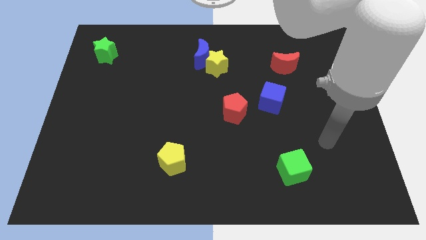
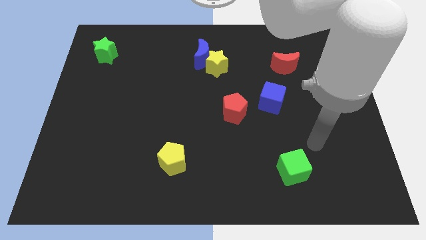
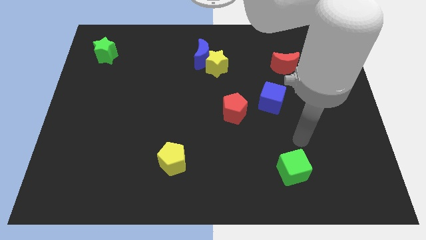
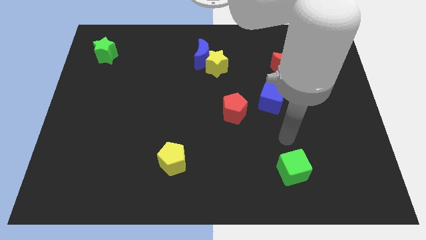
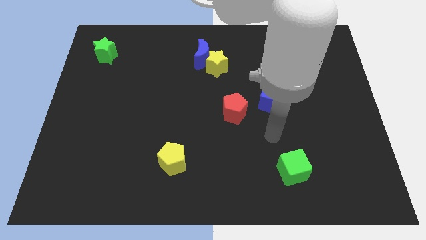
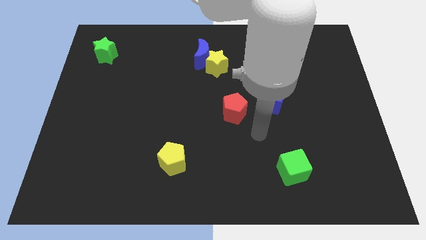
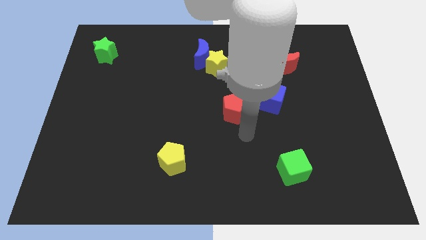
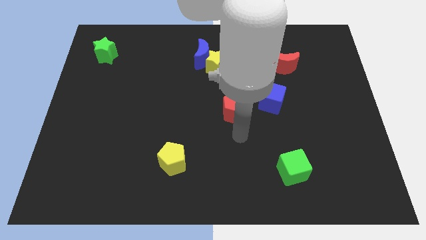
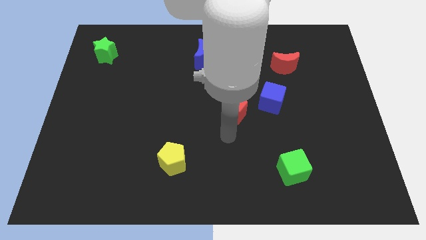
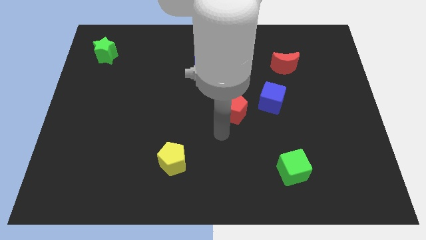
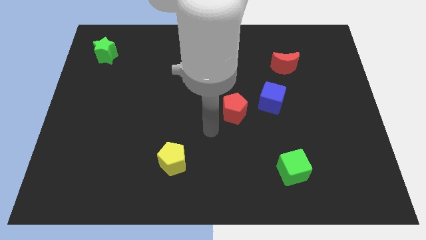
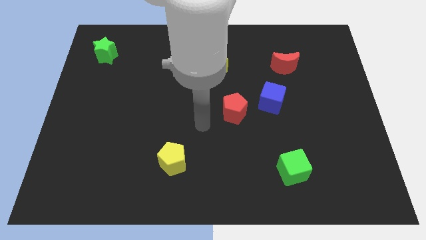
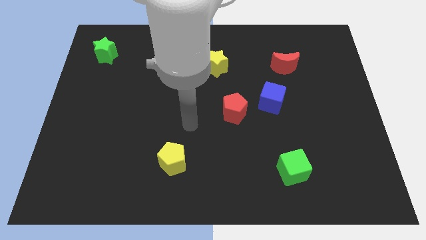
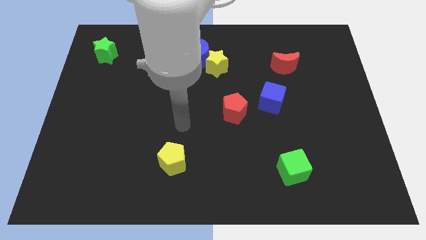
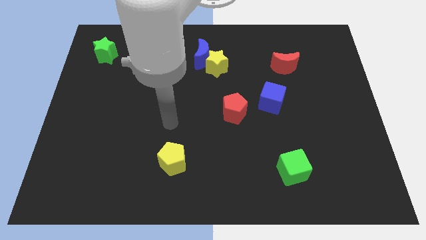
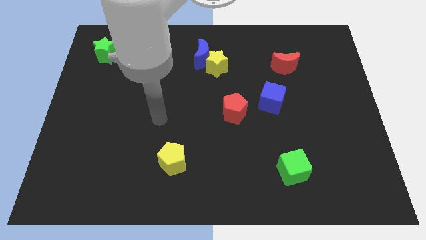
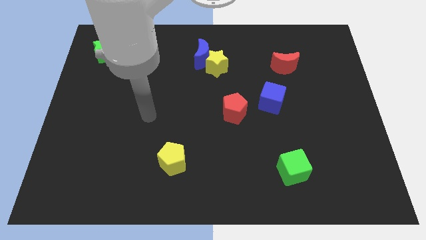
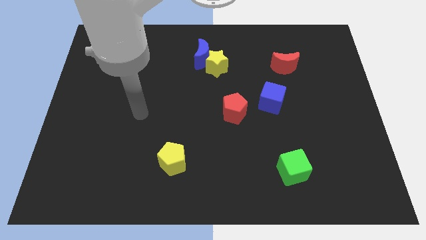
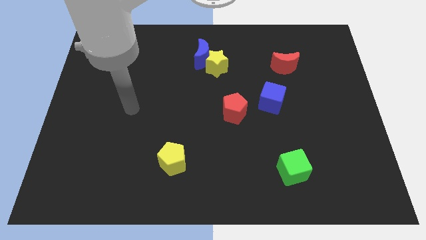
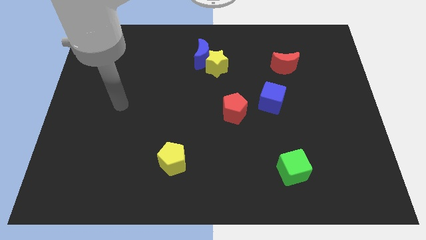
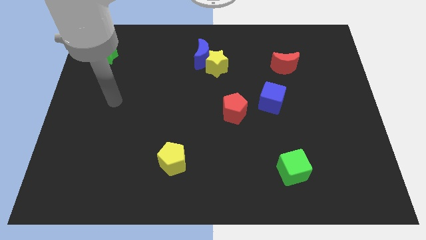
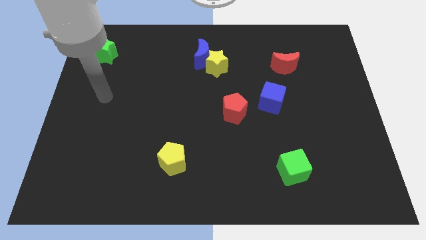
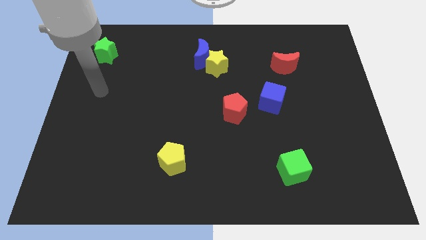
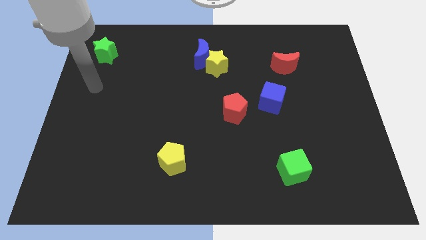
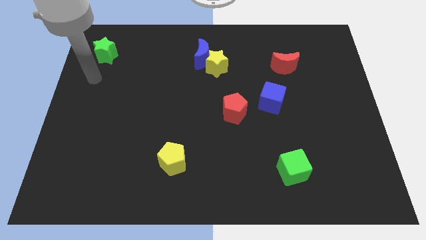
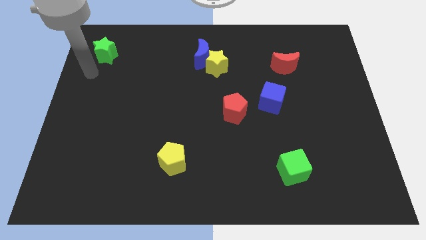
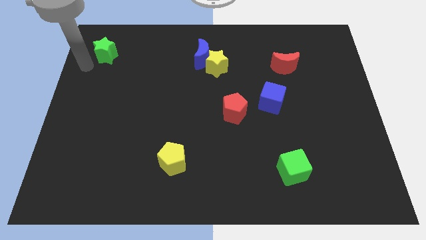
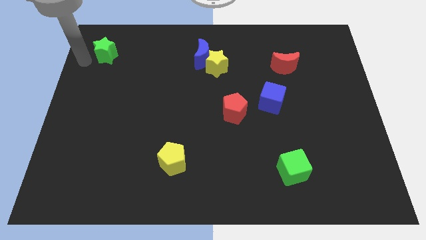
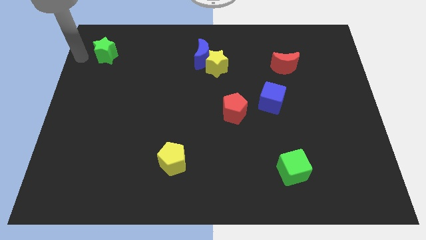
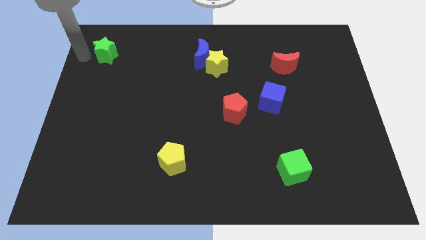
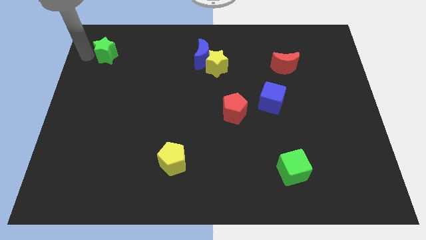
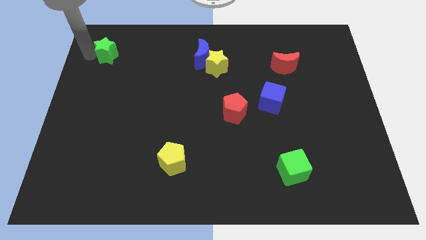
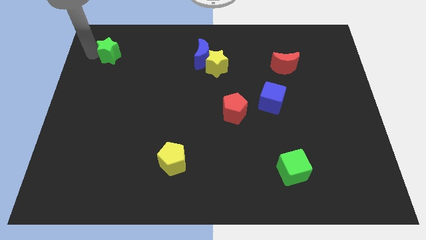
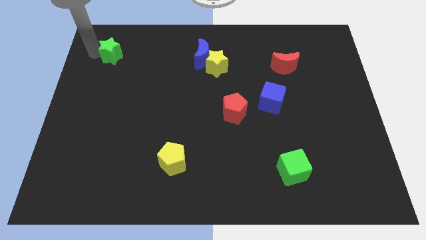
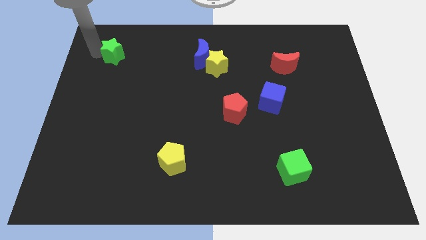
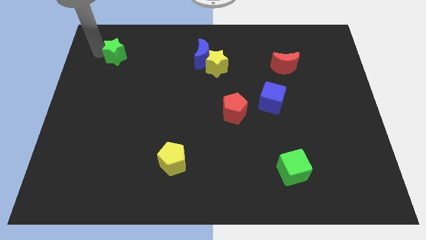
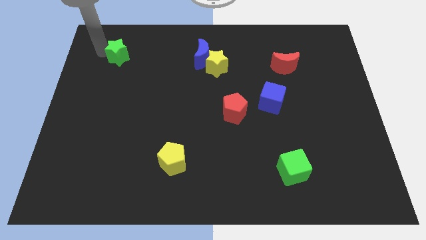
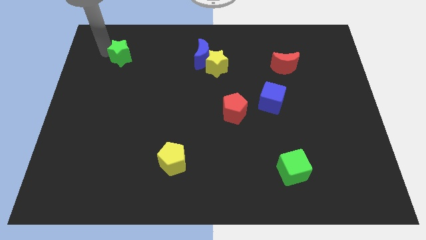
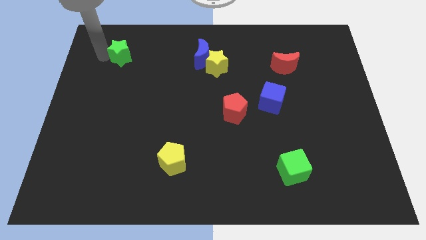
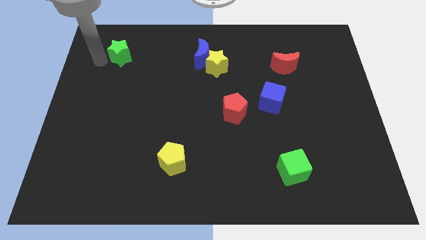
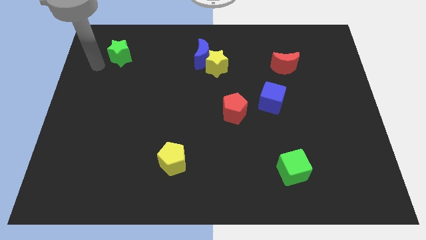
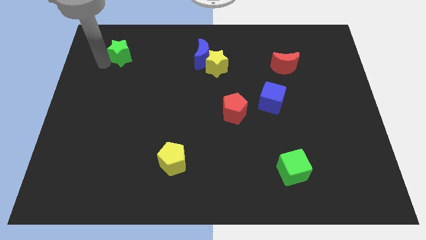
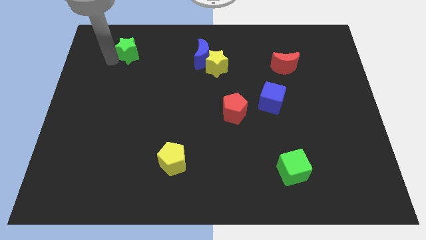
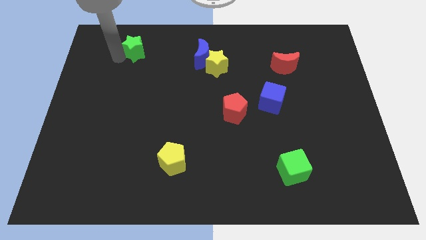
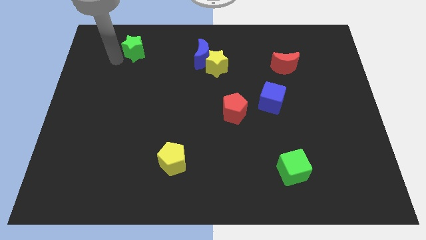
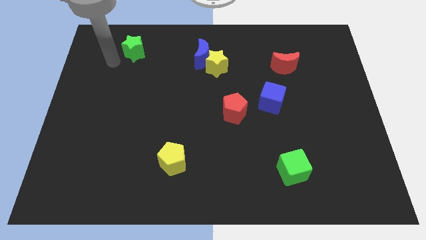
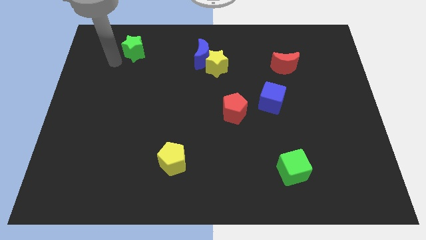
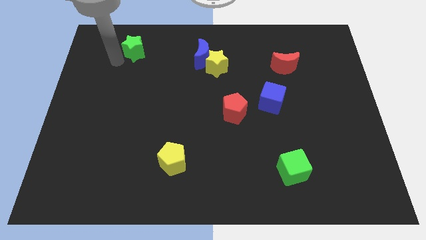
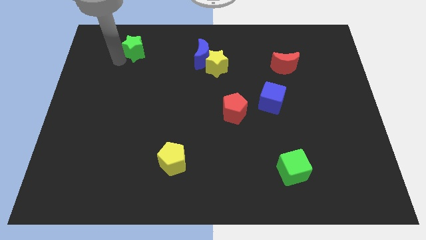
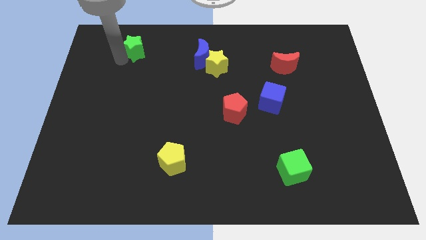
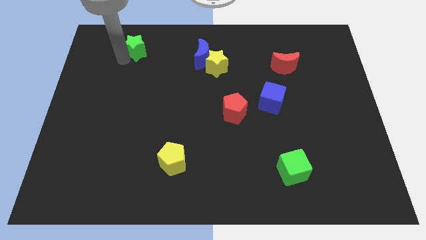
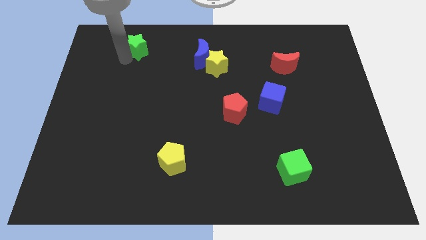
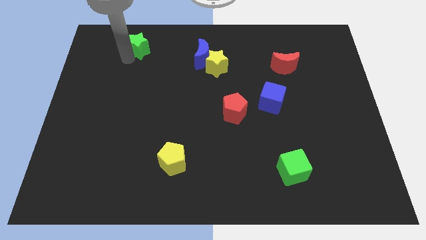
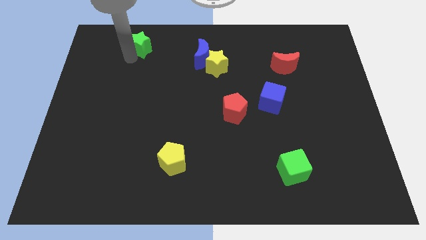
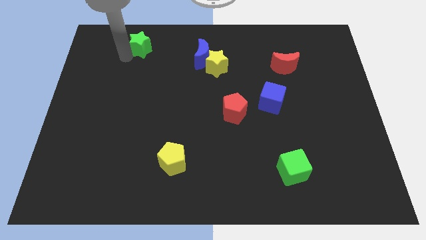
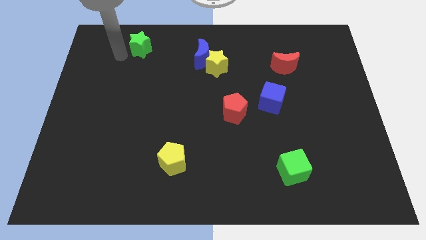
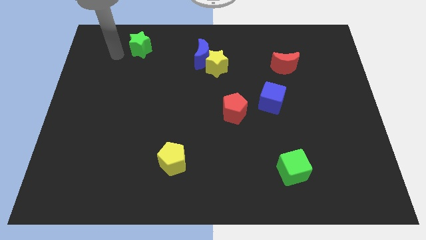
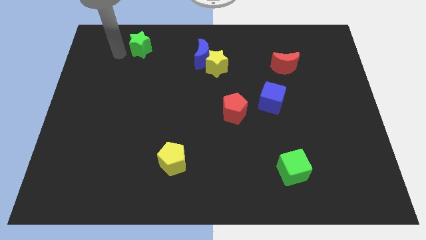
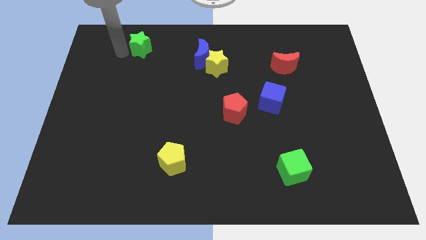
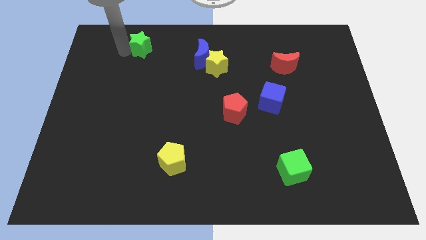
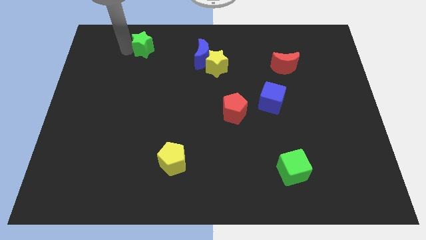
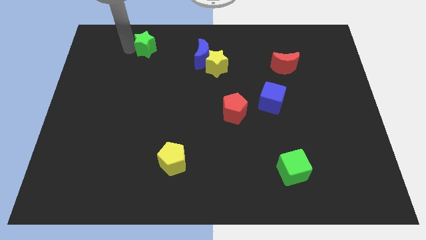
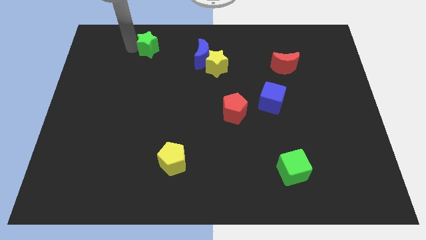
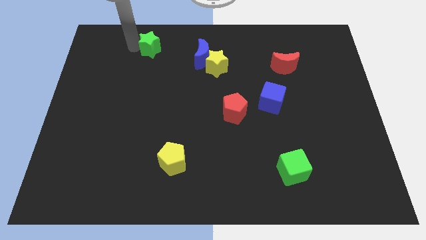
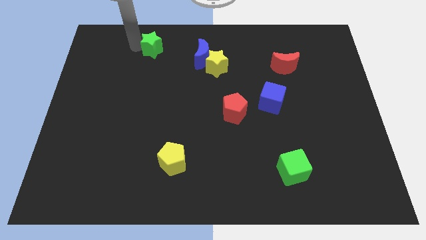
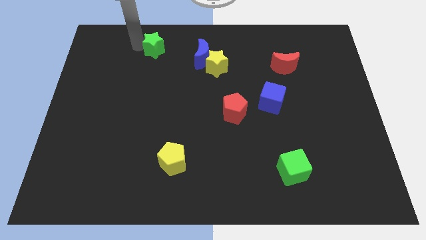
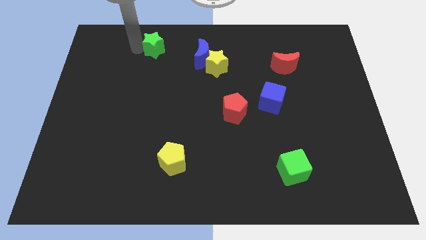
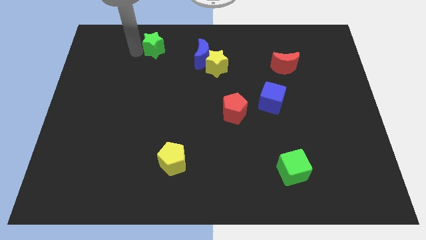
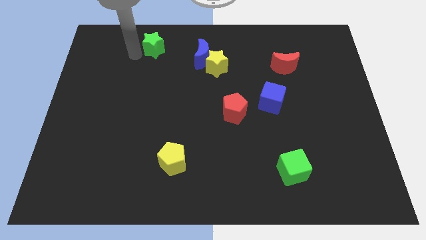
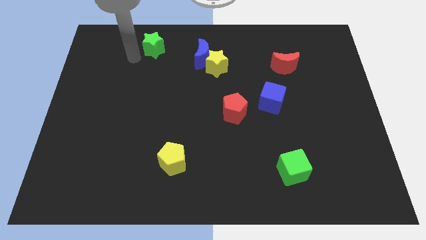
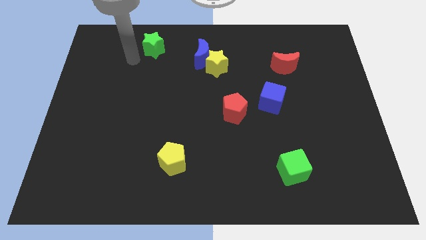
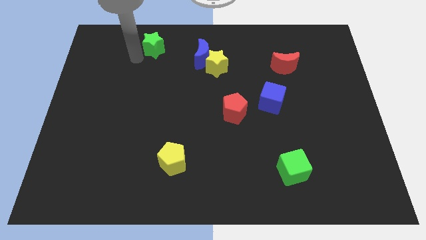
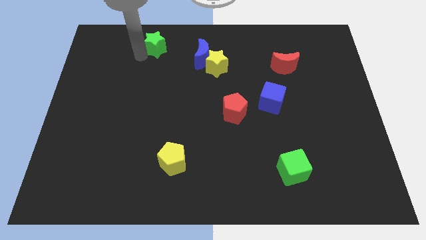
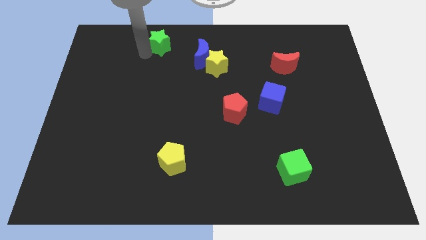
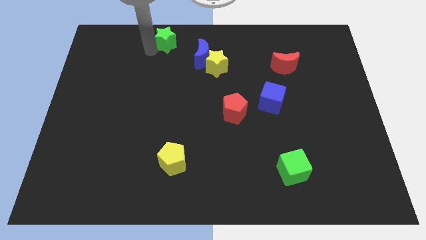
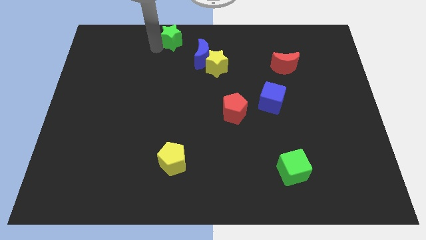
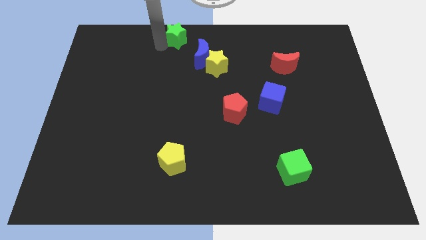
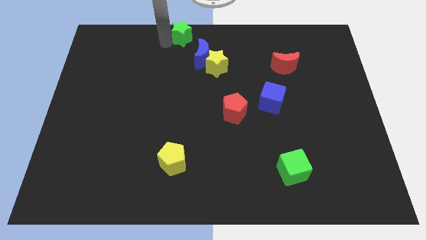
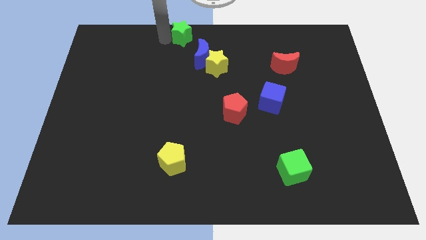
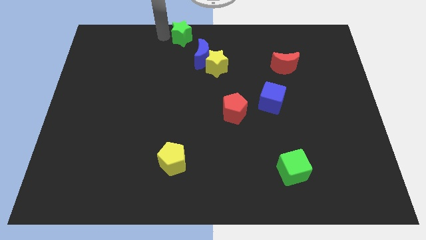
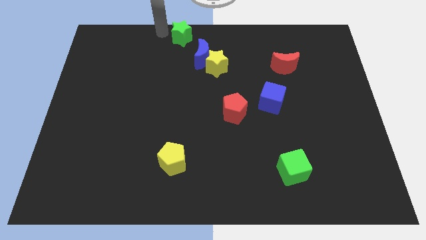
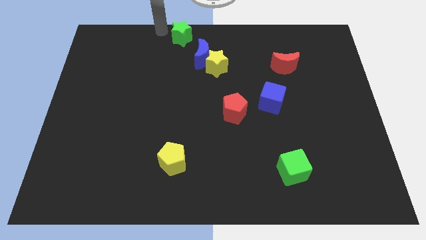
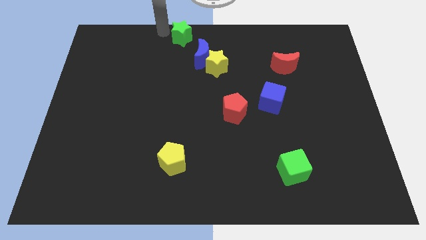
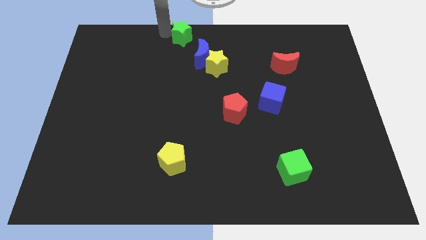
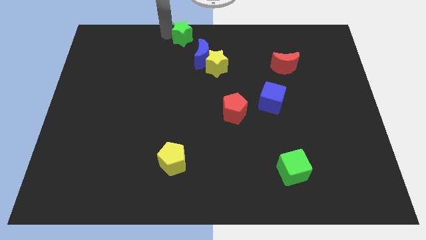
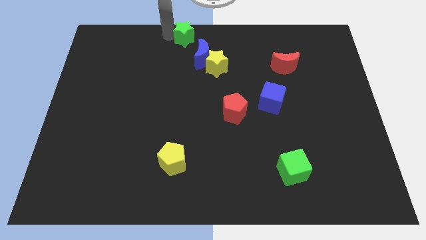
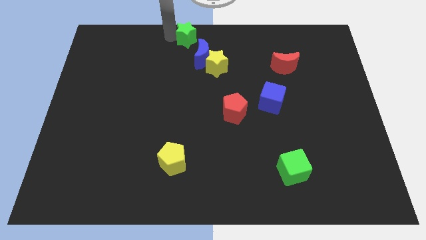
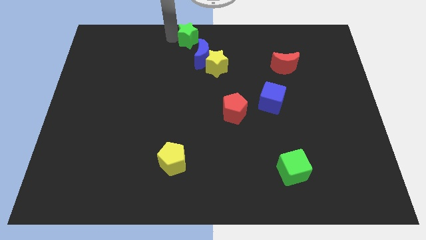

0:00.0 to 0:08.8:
push the green star right
